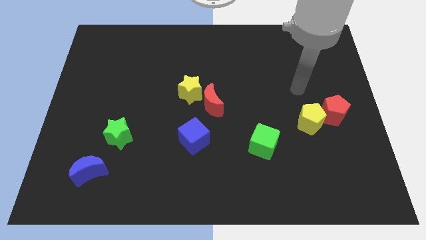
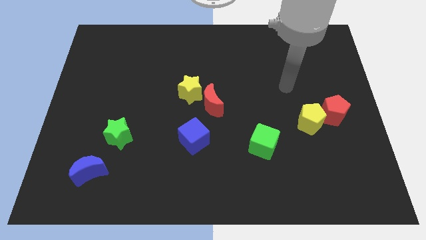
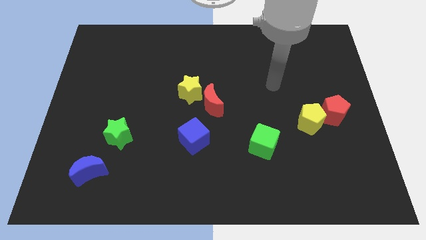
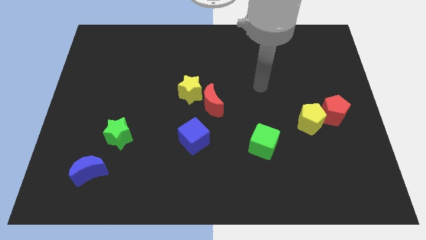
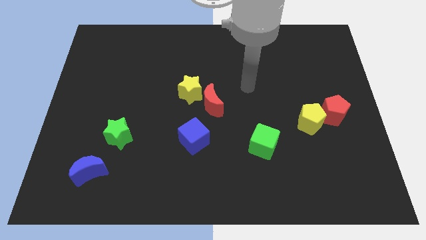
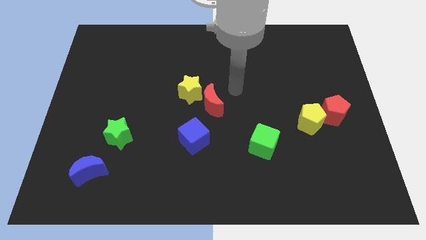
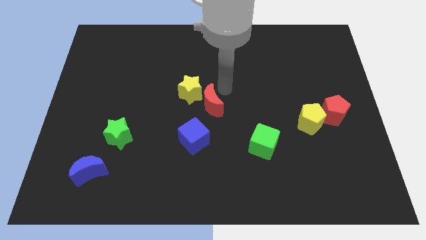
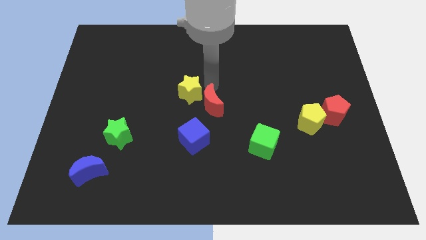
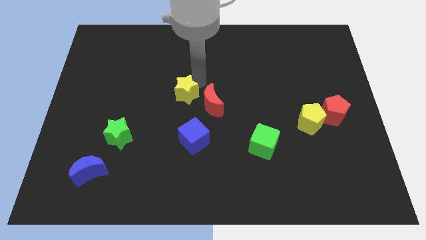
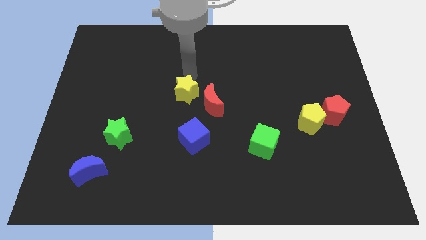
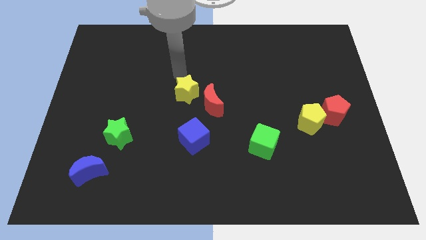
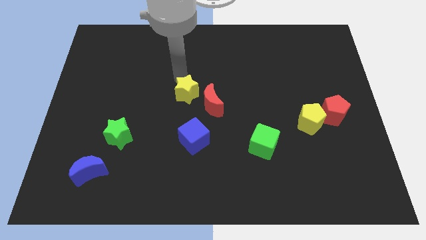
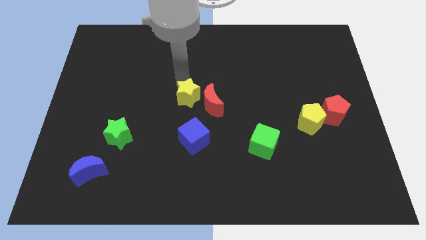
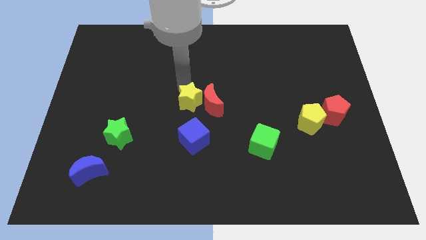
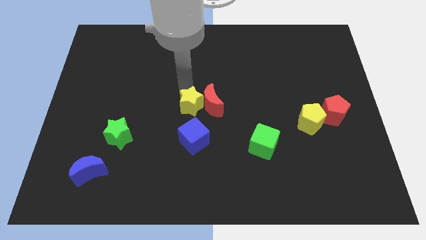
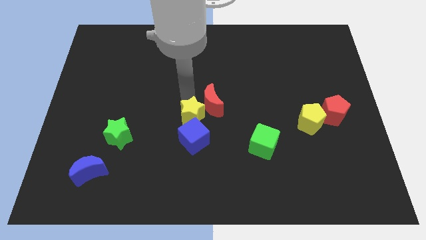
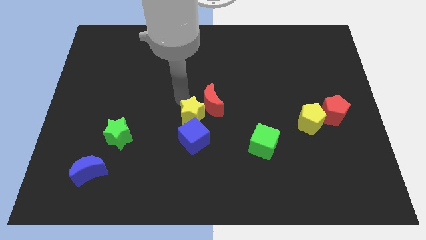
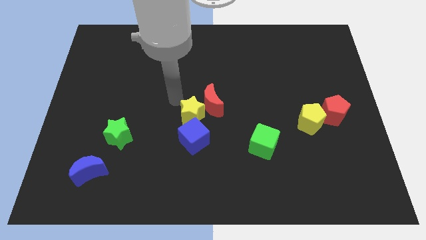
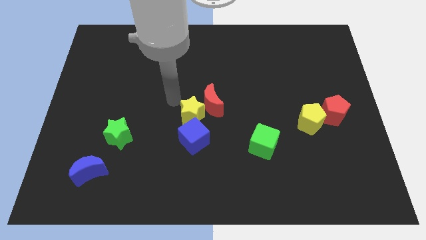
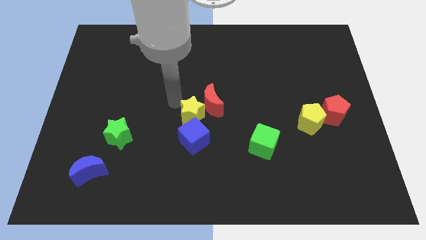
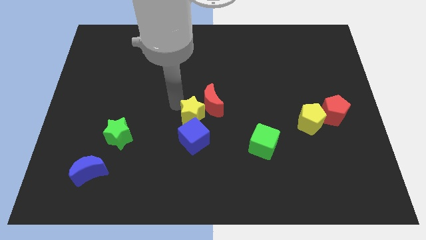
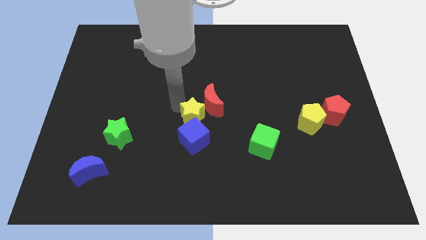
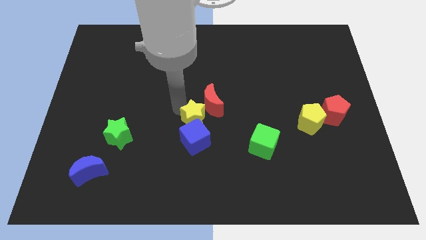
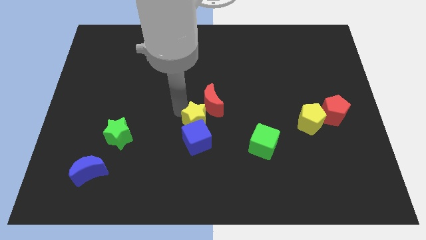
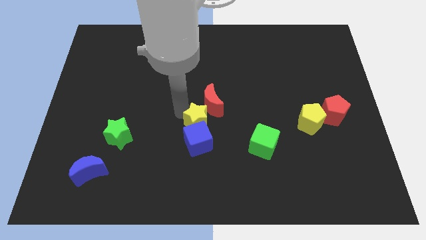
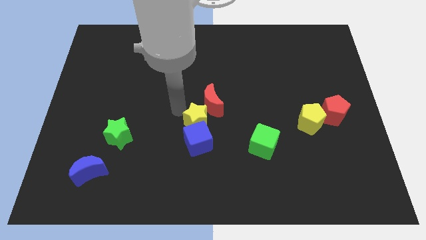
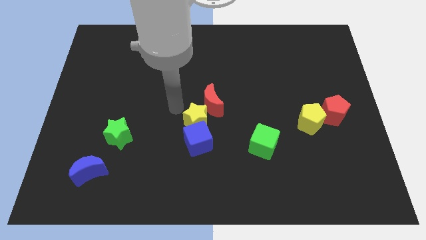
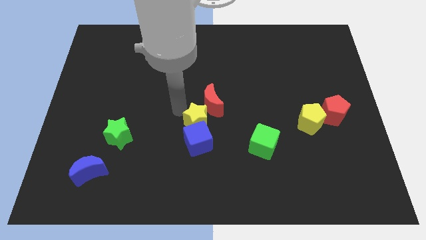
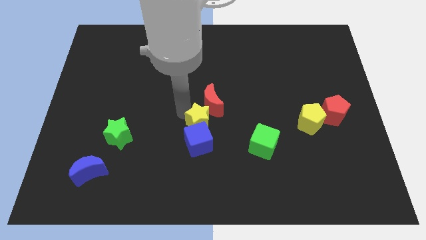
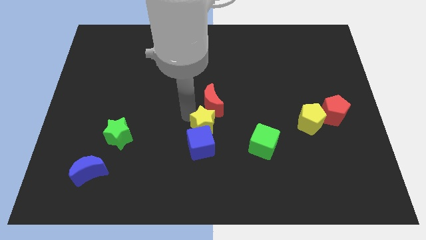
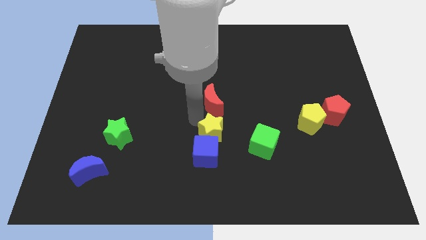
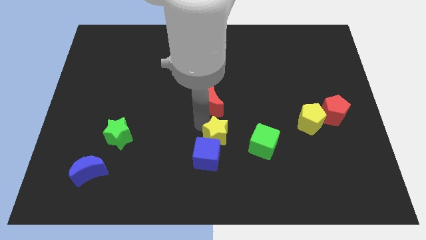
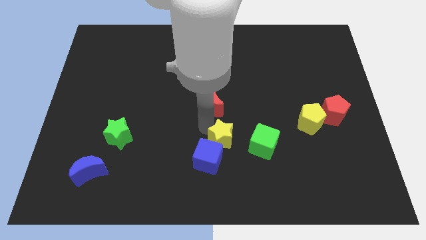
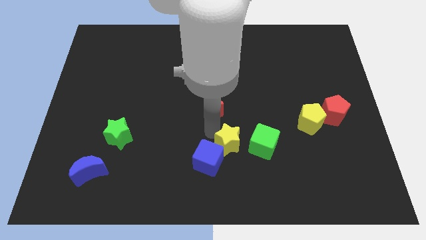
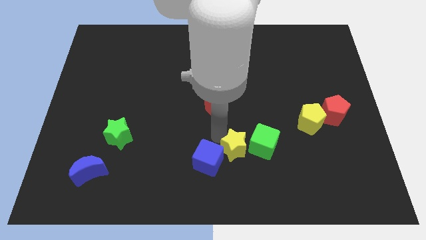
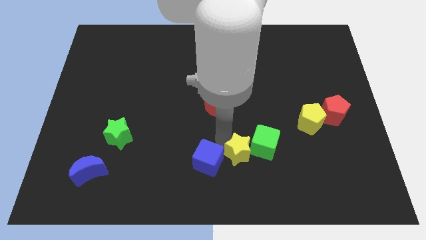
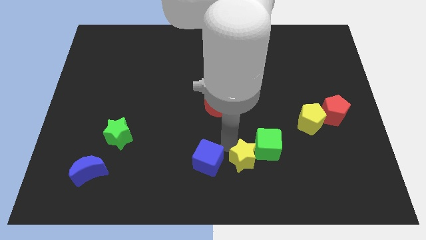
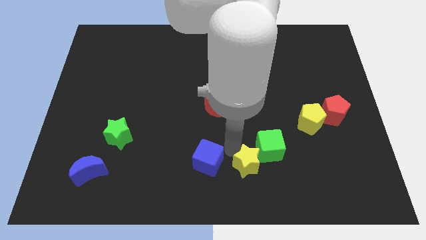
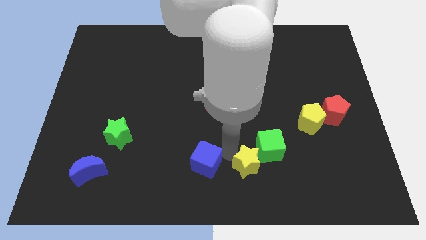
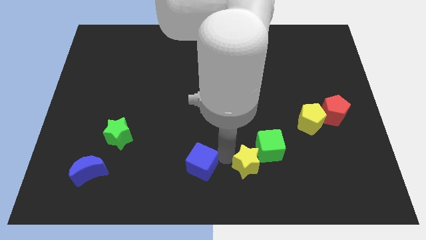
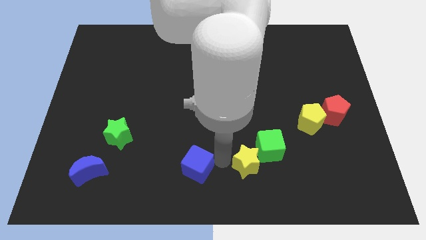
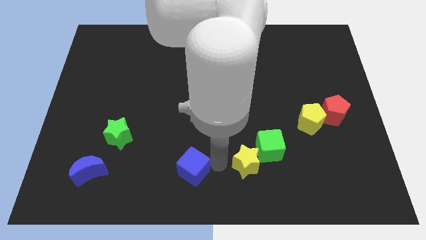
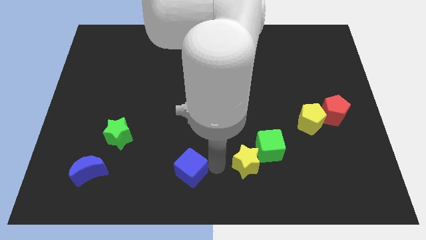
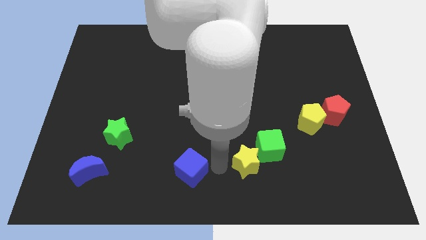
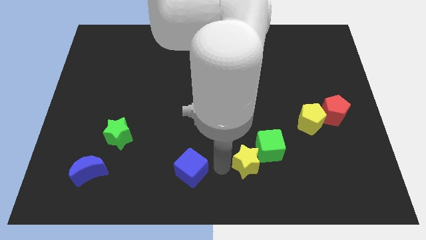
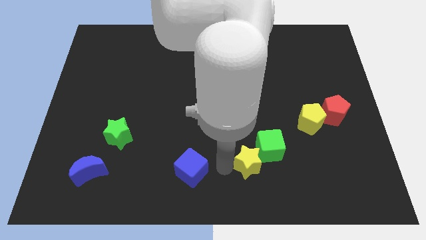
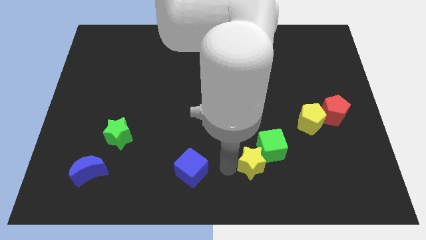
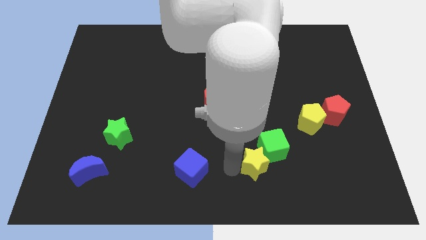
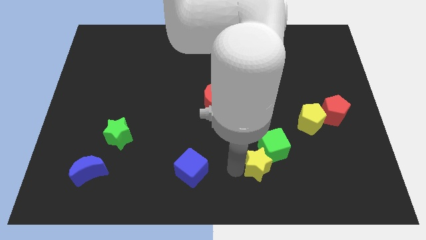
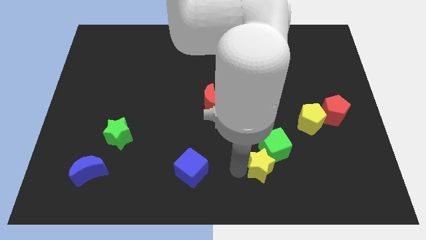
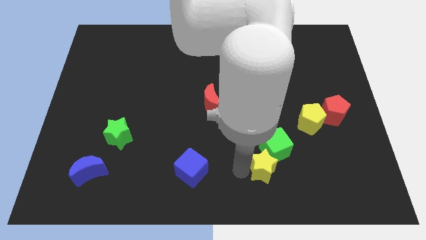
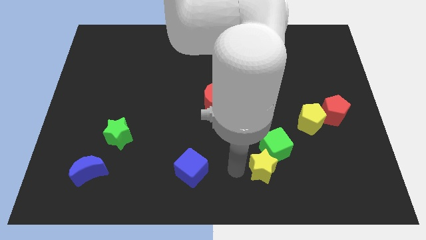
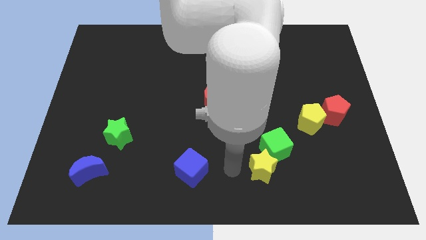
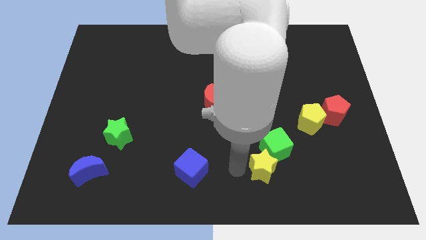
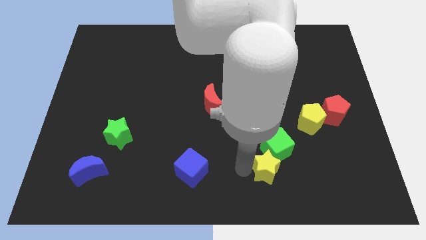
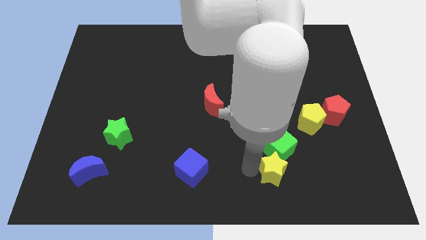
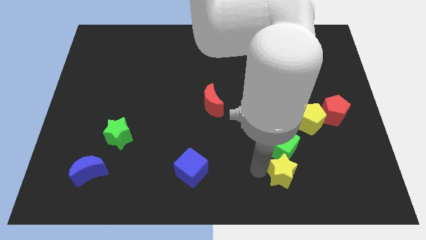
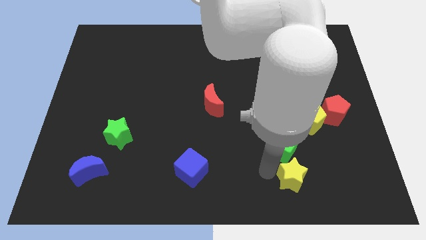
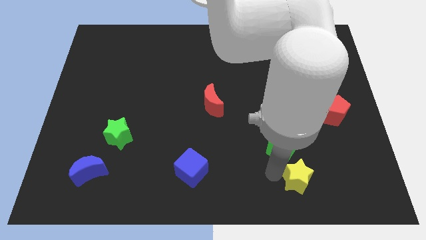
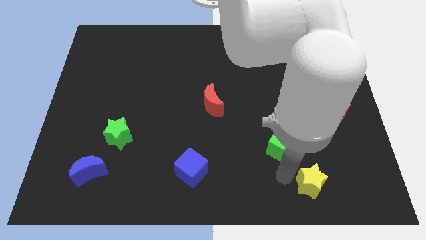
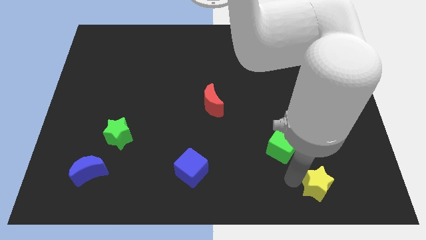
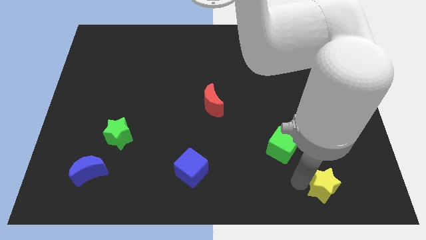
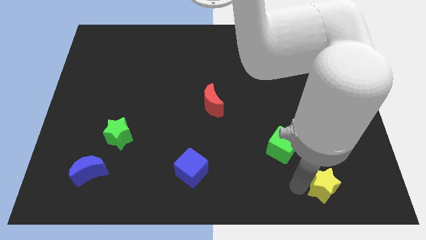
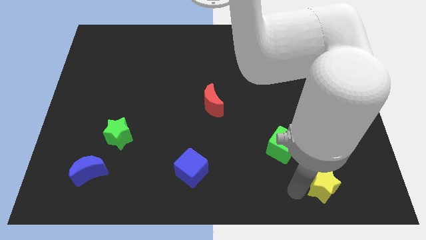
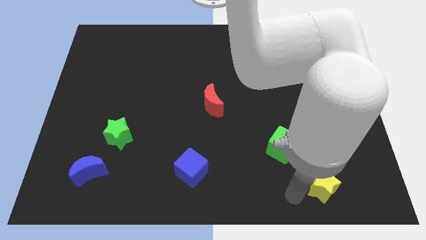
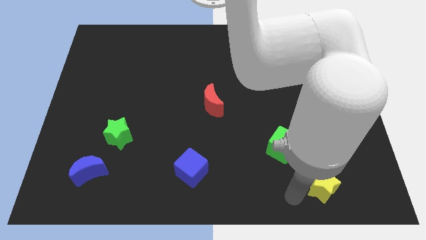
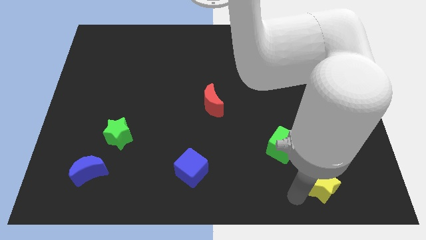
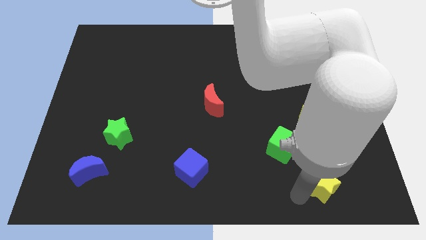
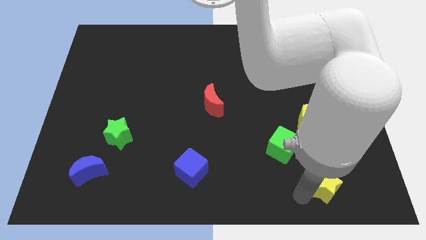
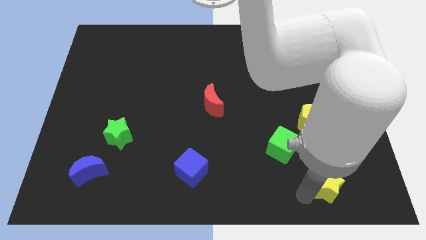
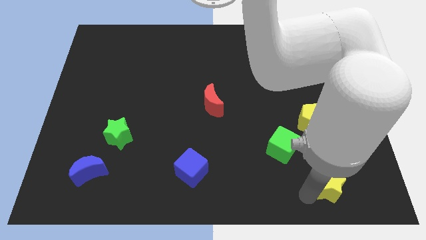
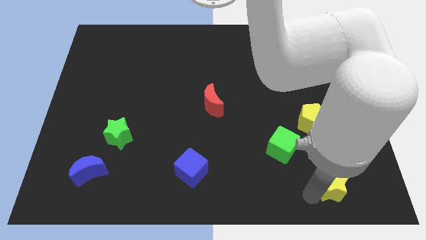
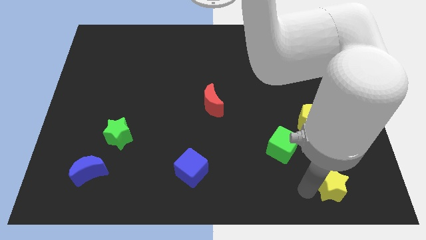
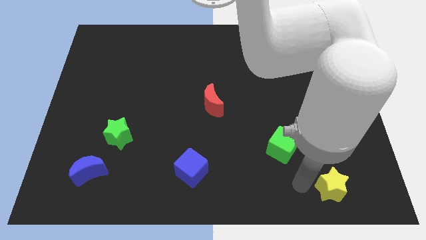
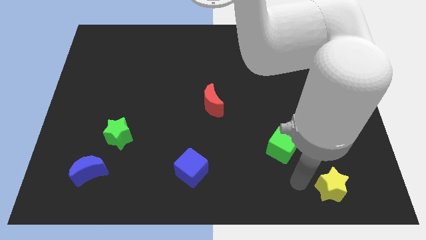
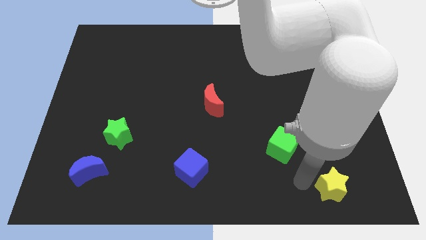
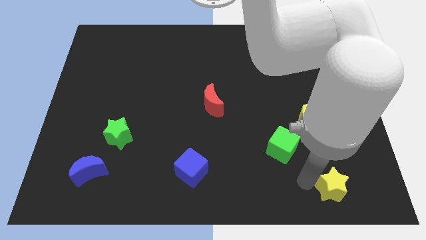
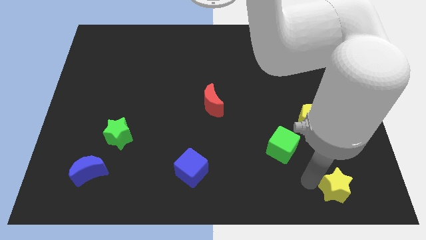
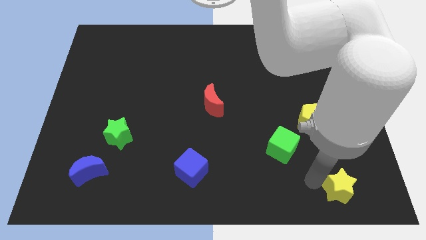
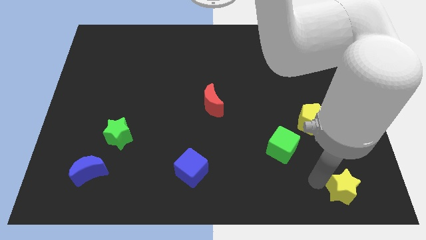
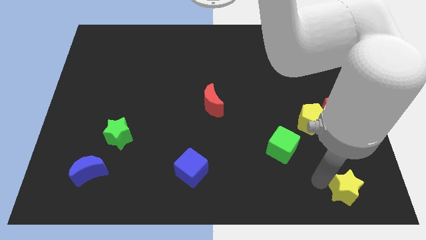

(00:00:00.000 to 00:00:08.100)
push the yellow star to the bottom right
